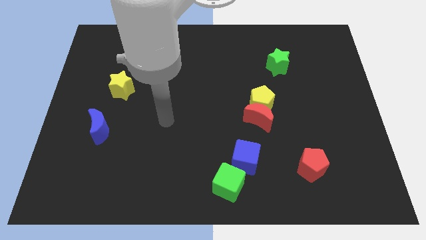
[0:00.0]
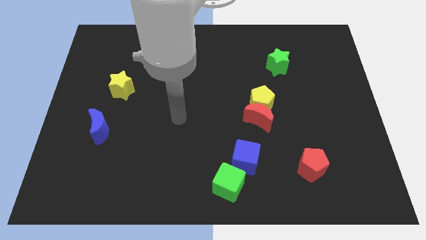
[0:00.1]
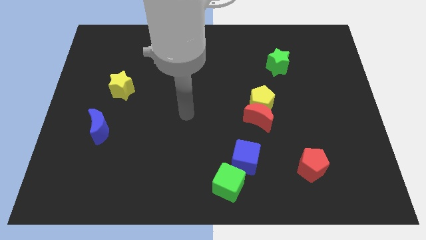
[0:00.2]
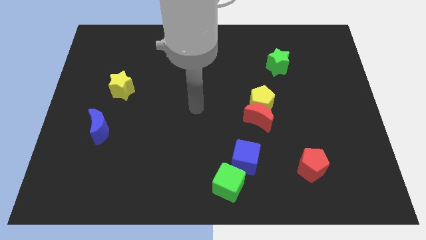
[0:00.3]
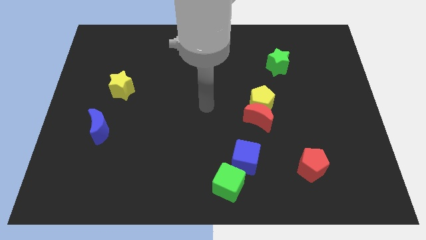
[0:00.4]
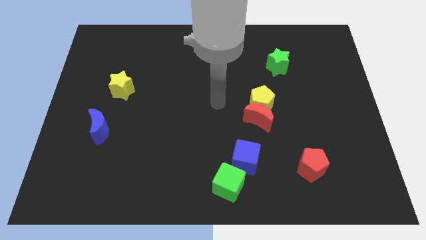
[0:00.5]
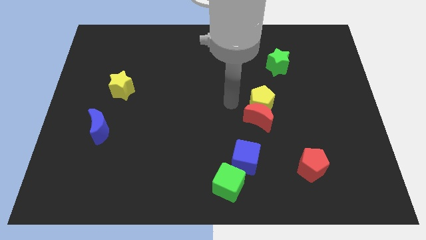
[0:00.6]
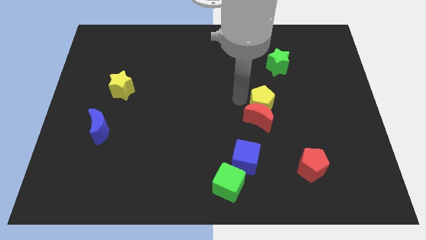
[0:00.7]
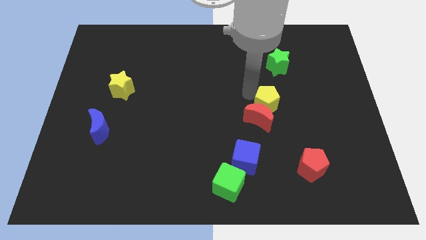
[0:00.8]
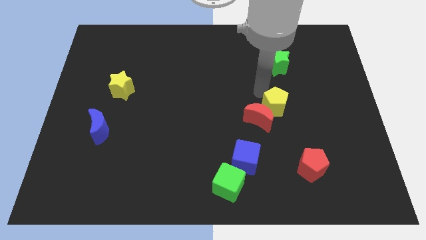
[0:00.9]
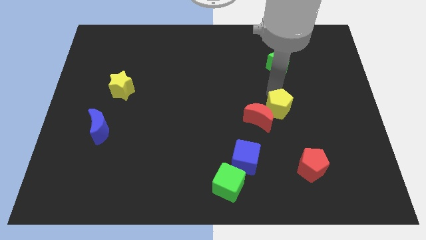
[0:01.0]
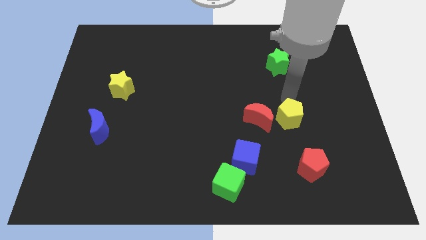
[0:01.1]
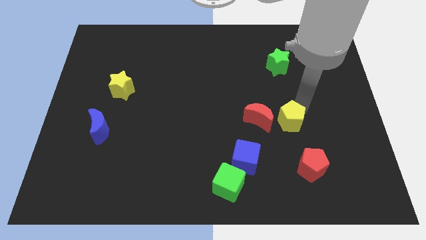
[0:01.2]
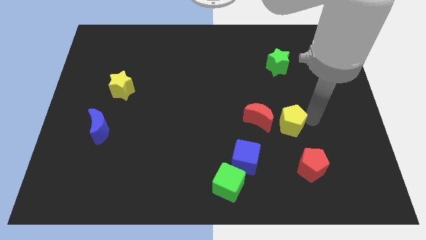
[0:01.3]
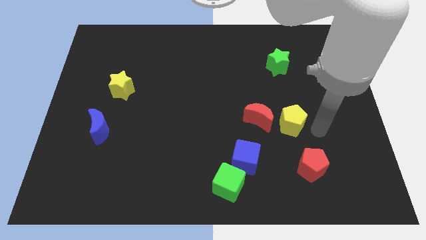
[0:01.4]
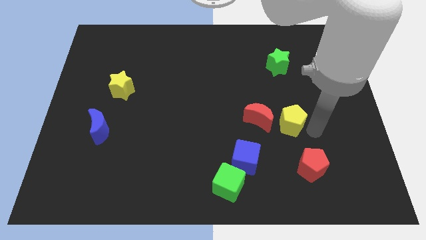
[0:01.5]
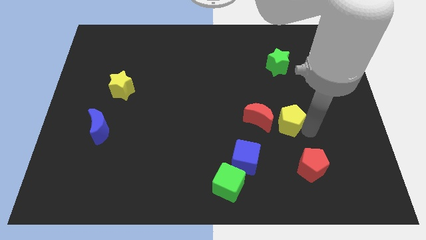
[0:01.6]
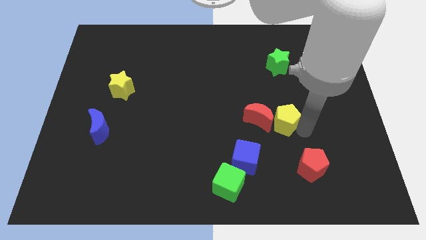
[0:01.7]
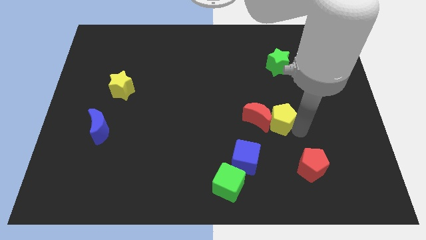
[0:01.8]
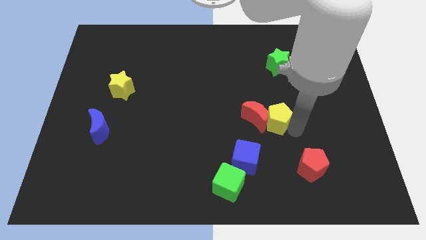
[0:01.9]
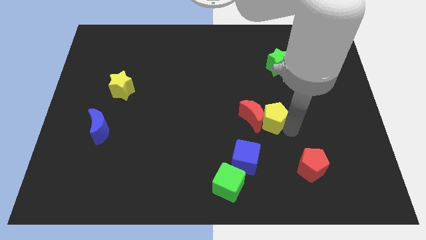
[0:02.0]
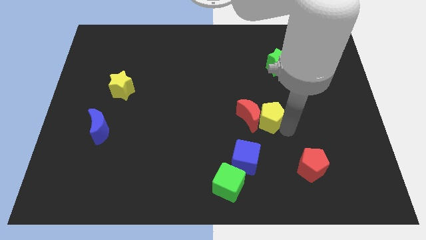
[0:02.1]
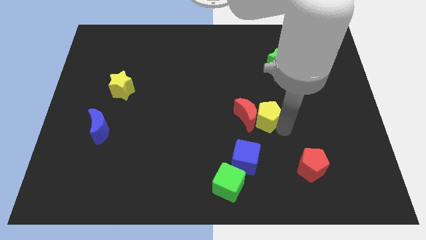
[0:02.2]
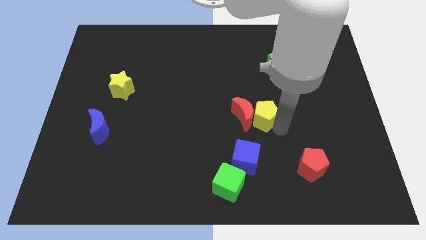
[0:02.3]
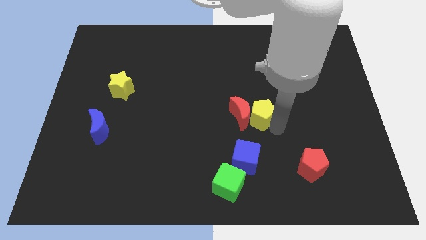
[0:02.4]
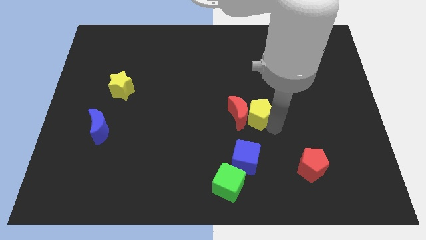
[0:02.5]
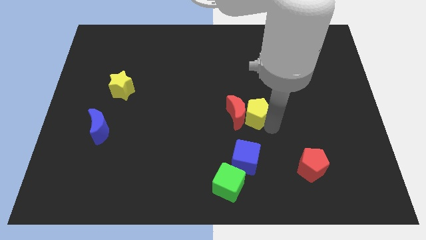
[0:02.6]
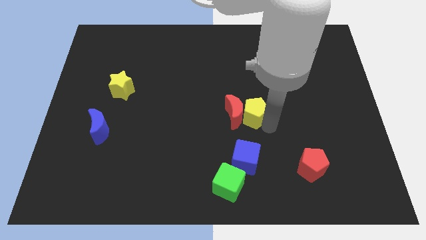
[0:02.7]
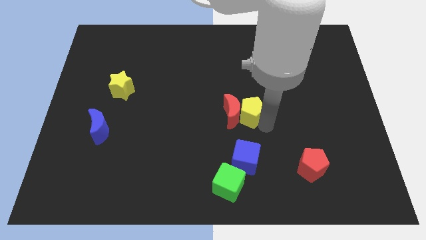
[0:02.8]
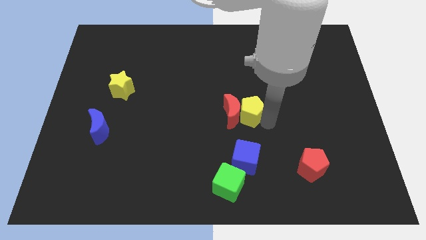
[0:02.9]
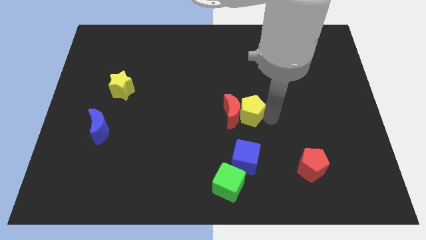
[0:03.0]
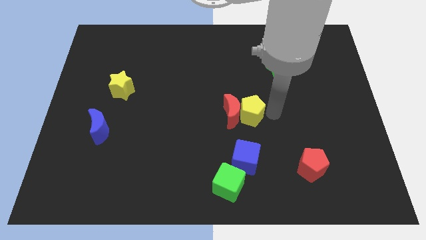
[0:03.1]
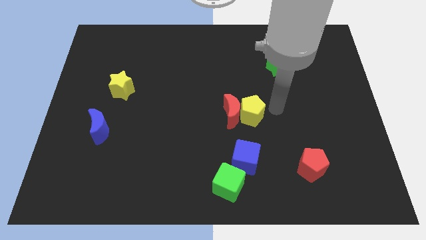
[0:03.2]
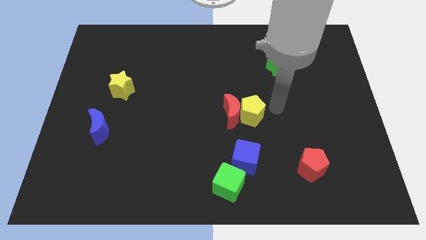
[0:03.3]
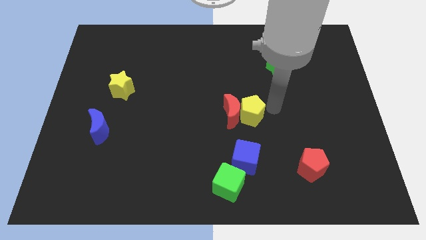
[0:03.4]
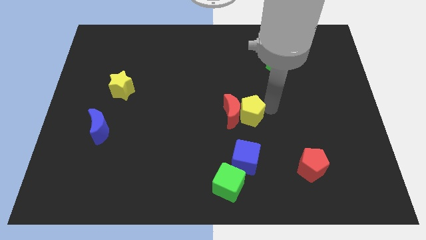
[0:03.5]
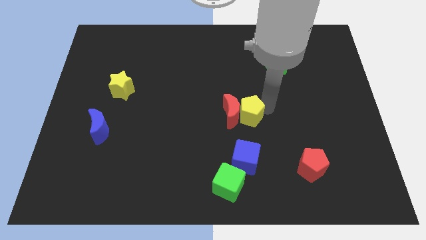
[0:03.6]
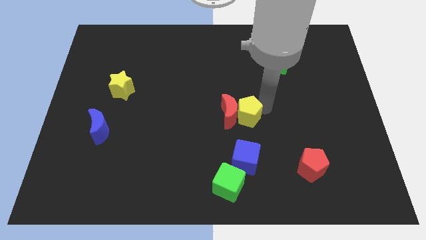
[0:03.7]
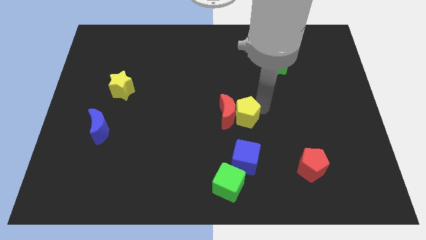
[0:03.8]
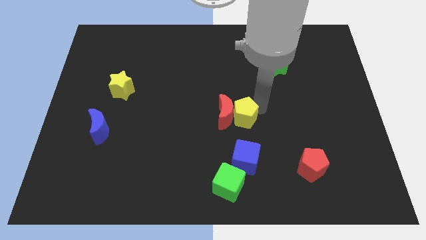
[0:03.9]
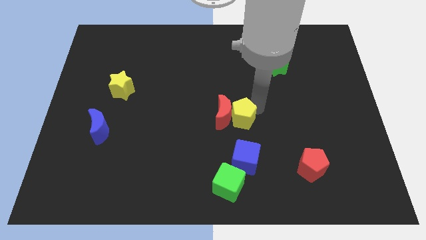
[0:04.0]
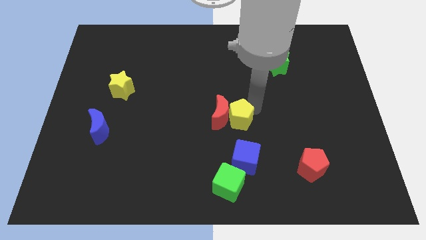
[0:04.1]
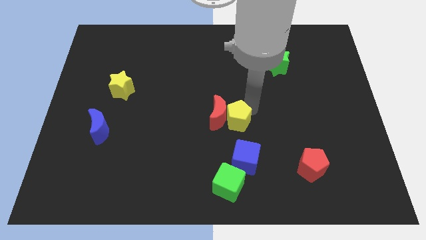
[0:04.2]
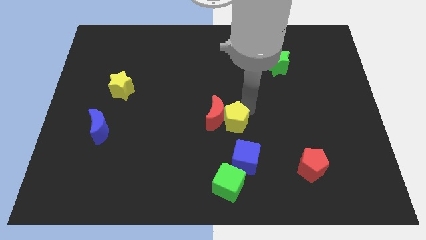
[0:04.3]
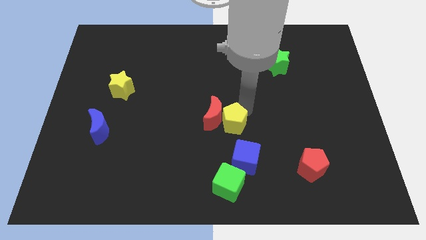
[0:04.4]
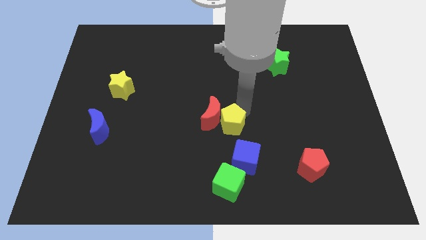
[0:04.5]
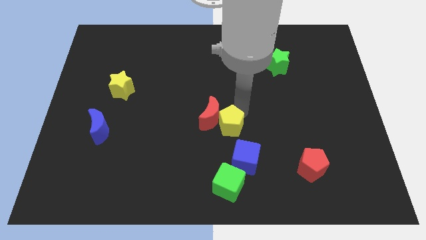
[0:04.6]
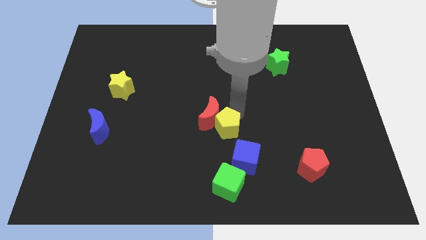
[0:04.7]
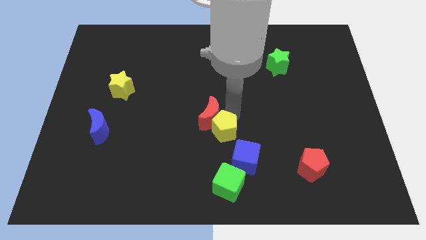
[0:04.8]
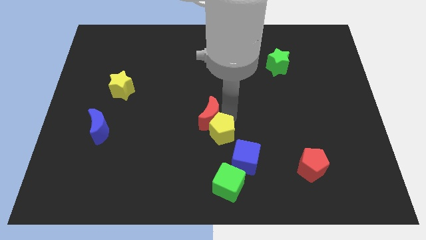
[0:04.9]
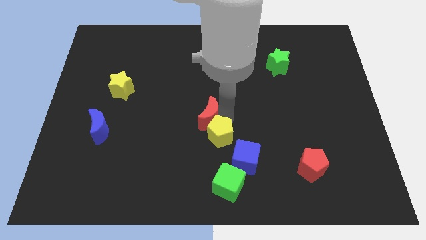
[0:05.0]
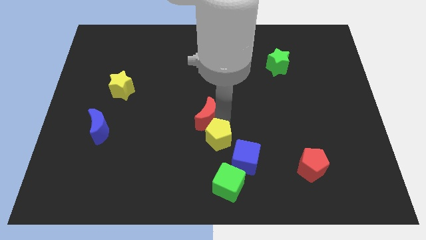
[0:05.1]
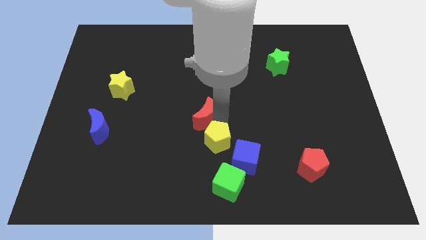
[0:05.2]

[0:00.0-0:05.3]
slide the yellow pentagon to the left side of the blue cube

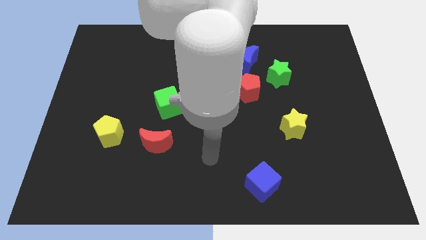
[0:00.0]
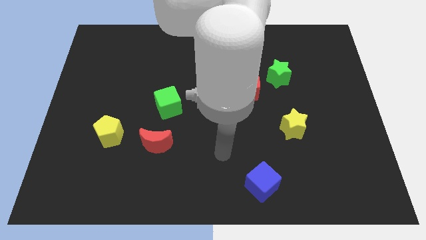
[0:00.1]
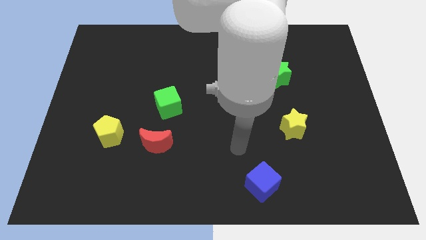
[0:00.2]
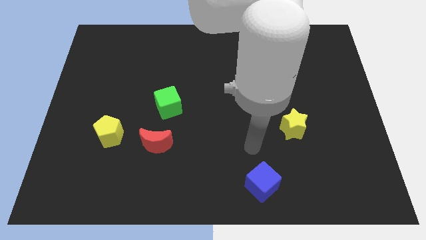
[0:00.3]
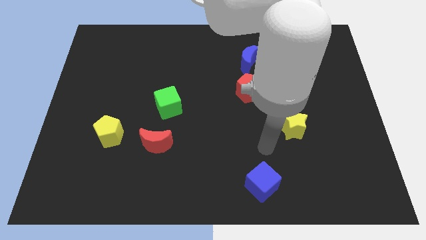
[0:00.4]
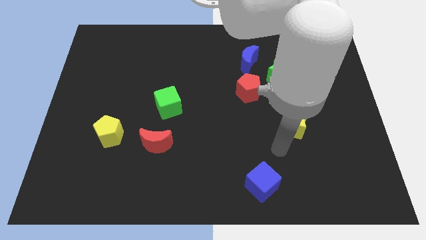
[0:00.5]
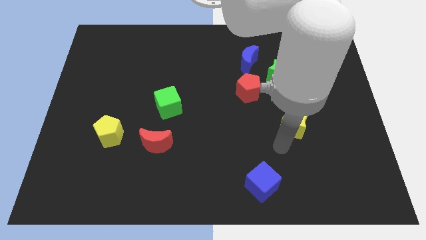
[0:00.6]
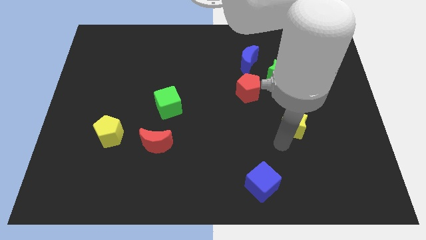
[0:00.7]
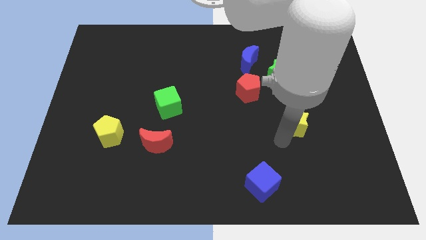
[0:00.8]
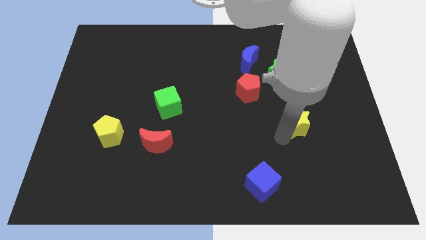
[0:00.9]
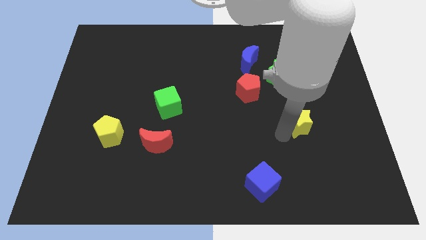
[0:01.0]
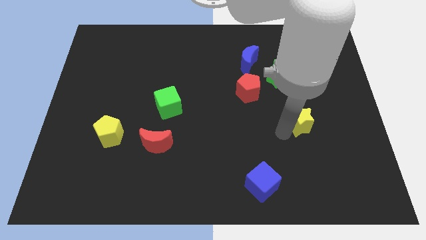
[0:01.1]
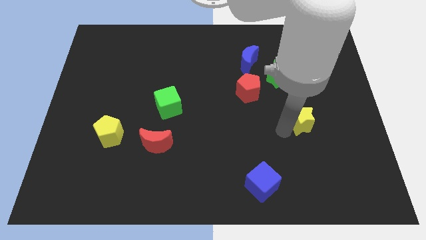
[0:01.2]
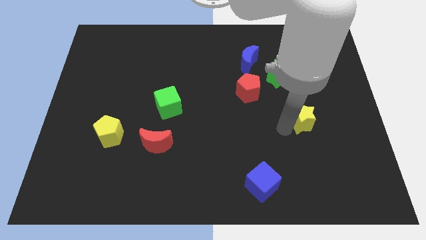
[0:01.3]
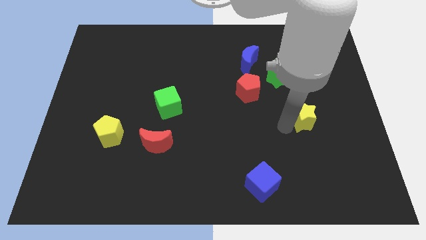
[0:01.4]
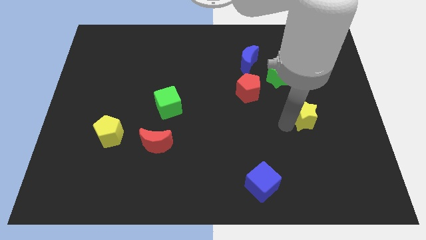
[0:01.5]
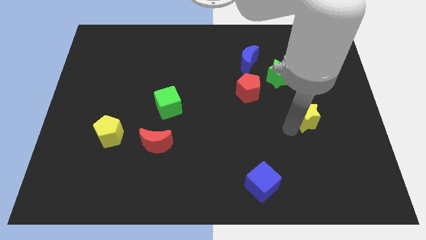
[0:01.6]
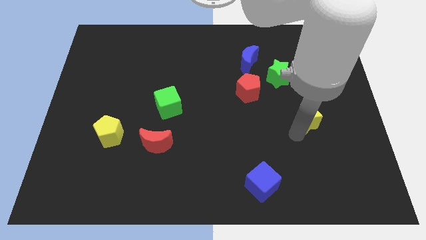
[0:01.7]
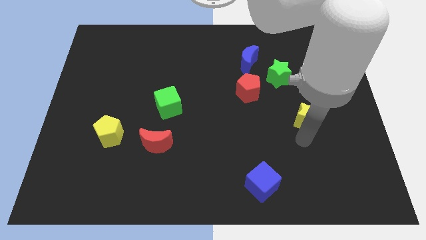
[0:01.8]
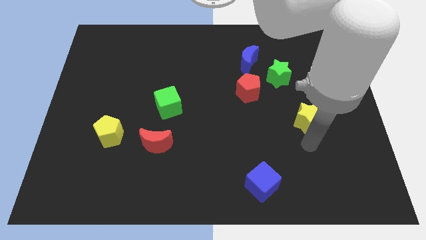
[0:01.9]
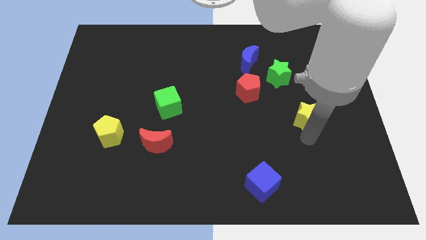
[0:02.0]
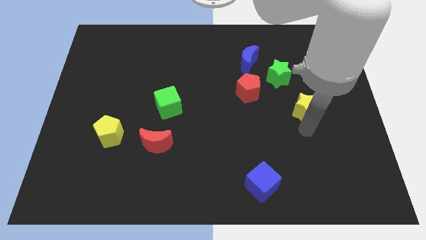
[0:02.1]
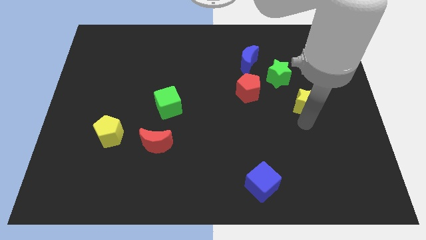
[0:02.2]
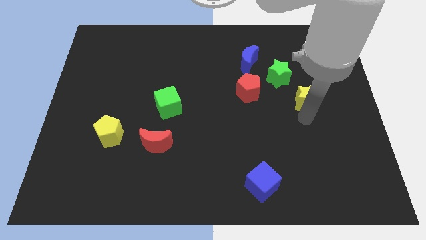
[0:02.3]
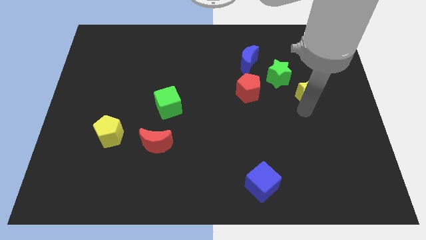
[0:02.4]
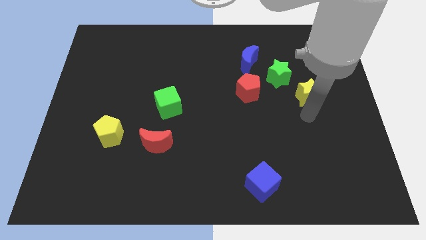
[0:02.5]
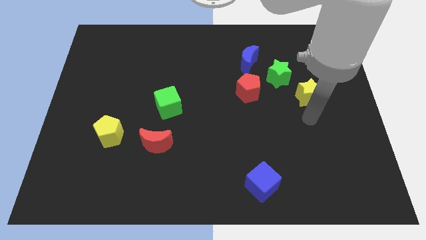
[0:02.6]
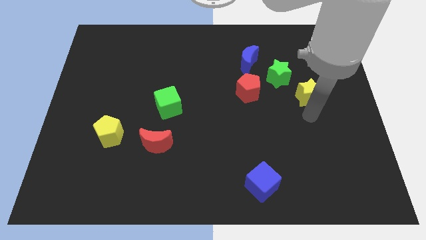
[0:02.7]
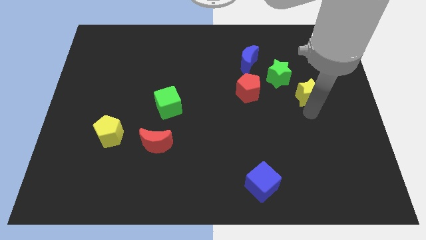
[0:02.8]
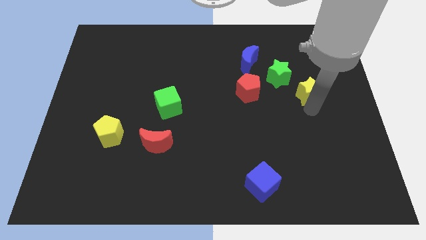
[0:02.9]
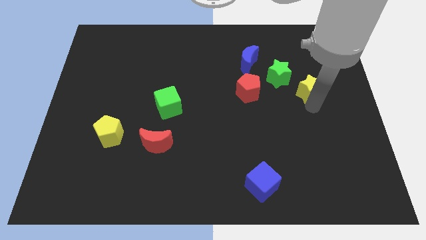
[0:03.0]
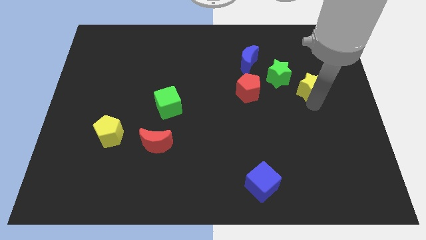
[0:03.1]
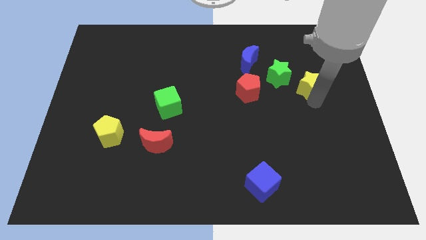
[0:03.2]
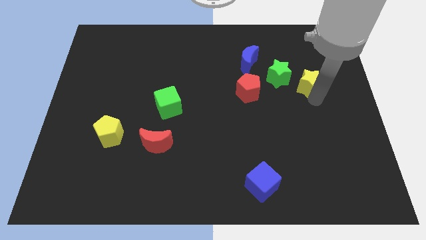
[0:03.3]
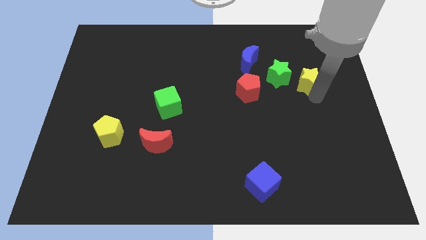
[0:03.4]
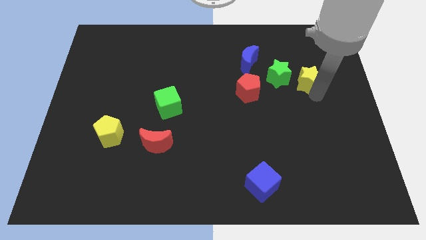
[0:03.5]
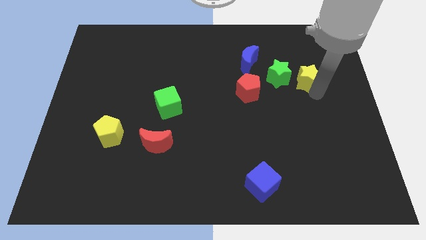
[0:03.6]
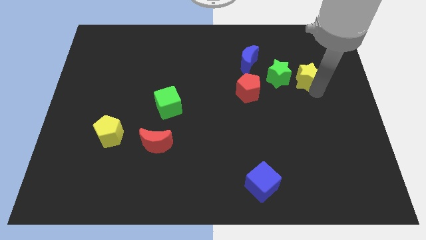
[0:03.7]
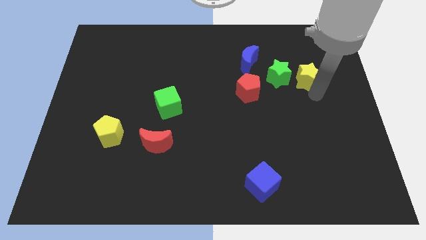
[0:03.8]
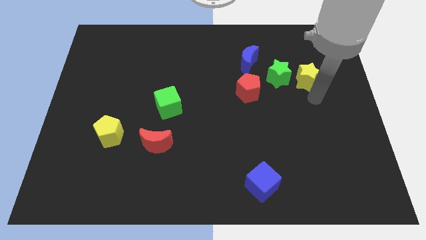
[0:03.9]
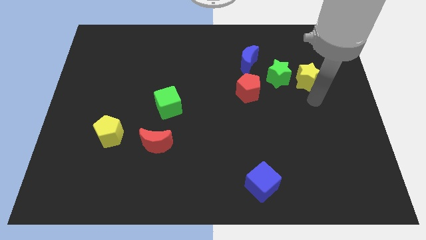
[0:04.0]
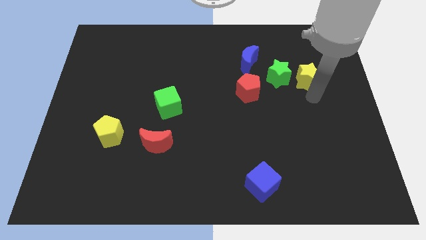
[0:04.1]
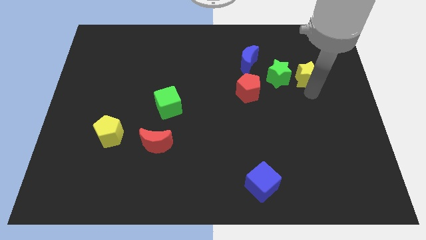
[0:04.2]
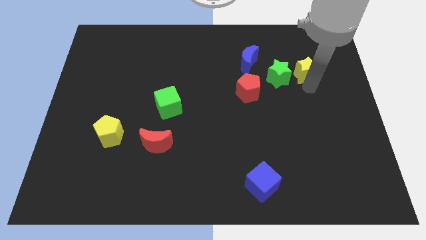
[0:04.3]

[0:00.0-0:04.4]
slide the yellow star to the top right side of the green star
